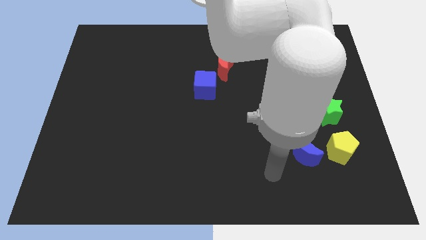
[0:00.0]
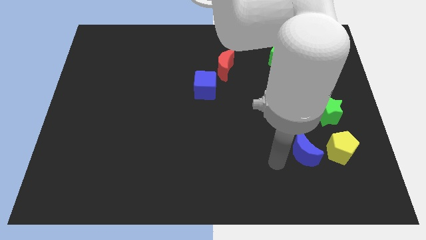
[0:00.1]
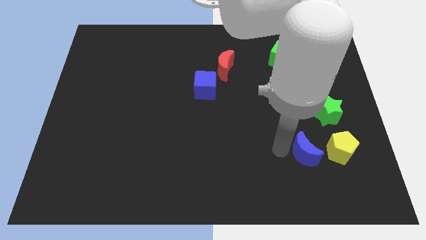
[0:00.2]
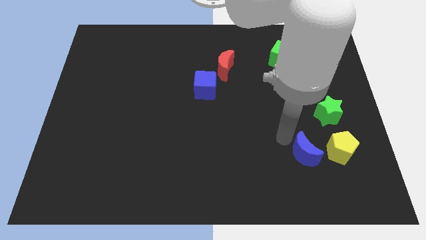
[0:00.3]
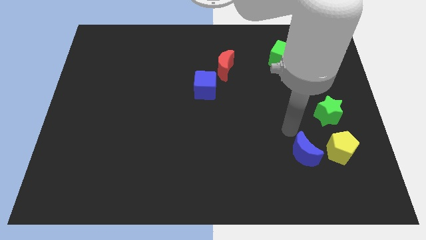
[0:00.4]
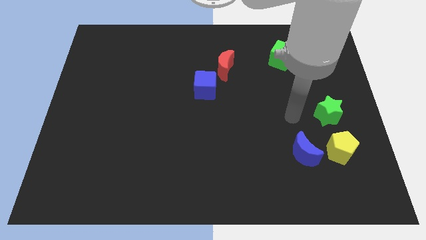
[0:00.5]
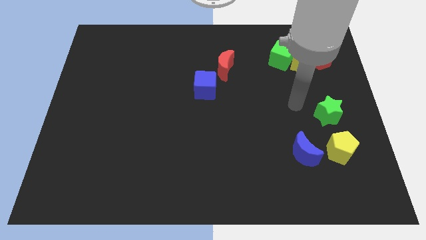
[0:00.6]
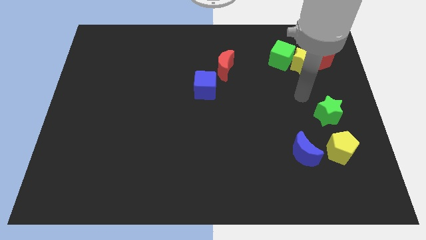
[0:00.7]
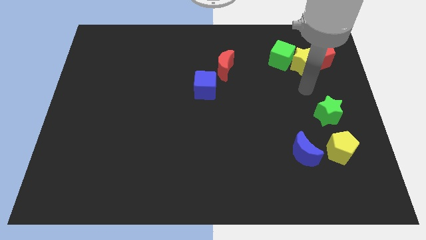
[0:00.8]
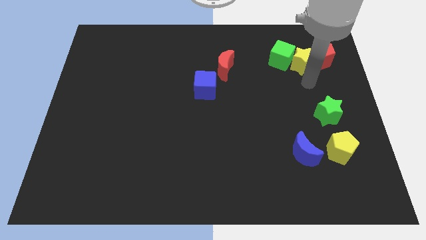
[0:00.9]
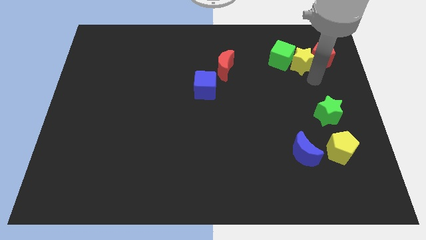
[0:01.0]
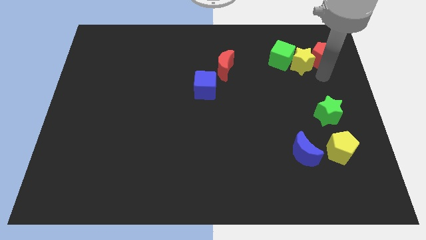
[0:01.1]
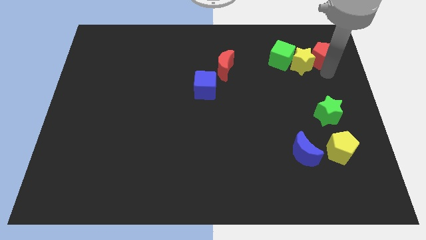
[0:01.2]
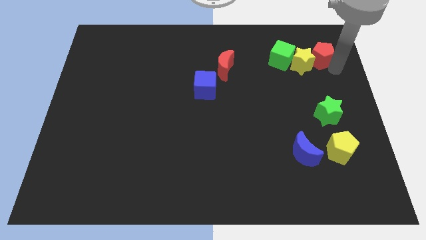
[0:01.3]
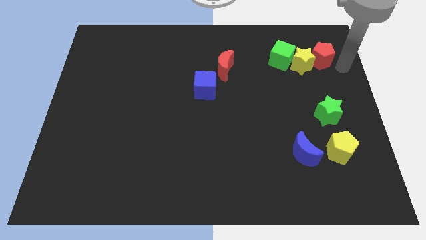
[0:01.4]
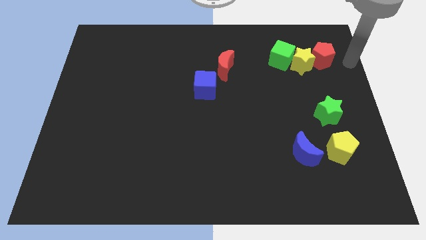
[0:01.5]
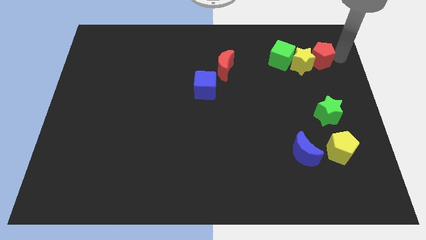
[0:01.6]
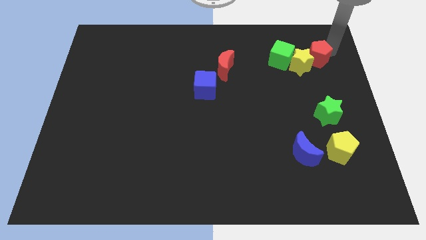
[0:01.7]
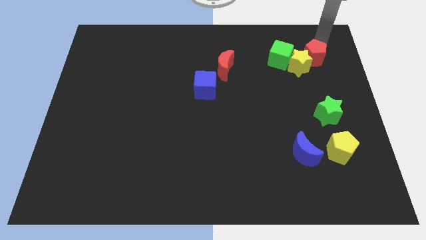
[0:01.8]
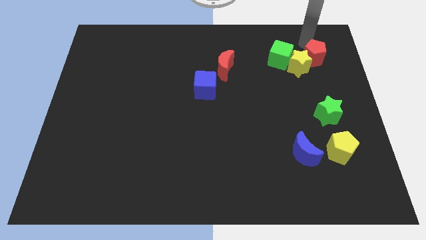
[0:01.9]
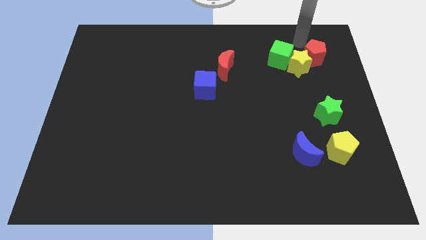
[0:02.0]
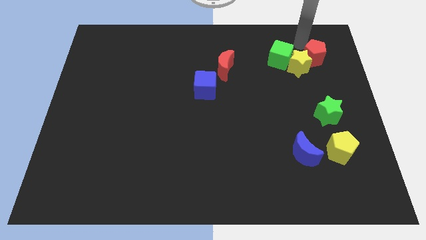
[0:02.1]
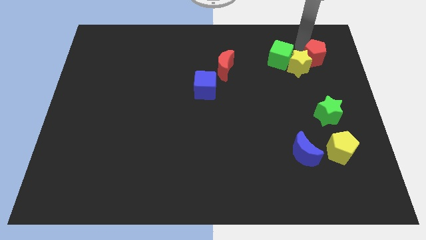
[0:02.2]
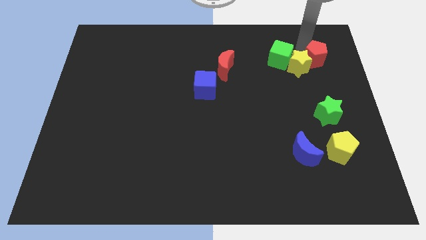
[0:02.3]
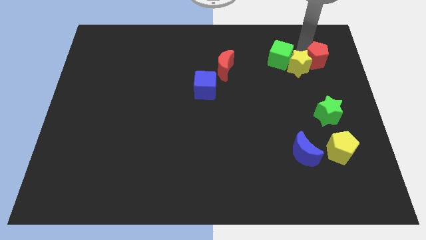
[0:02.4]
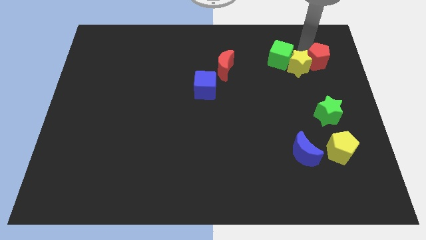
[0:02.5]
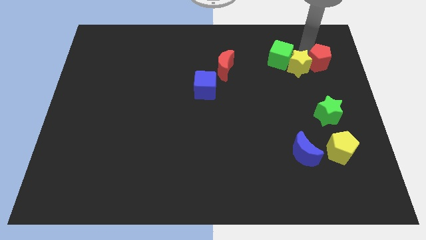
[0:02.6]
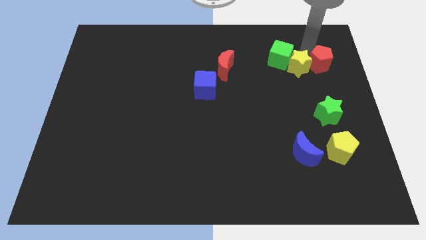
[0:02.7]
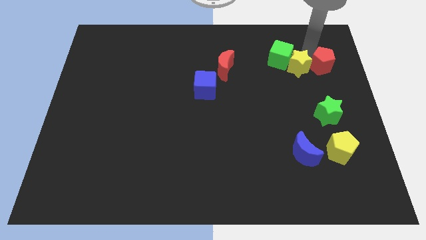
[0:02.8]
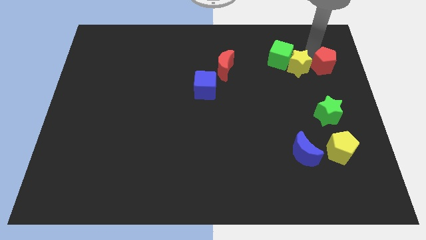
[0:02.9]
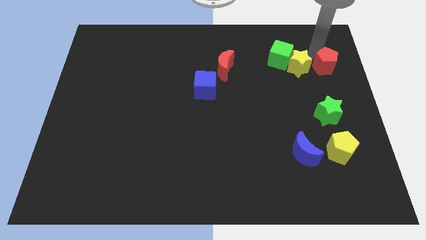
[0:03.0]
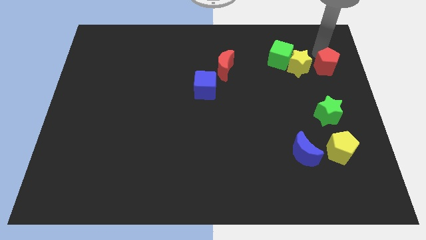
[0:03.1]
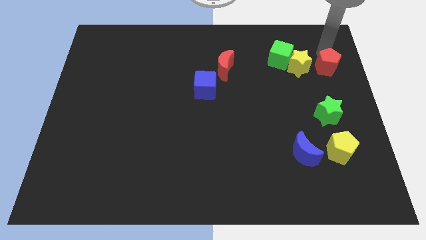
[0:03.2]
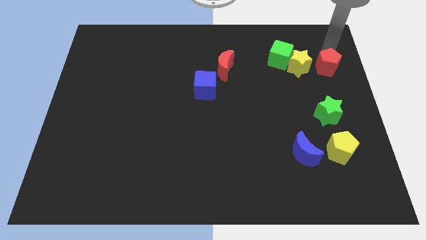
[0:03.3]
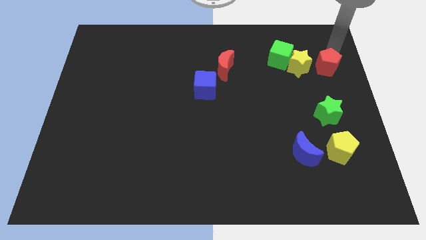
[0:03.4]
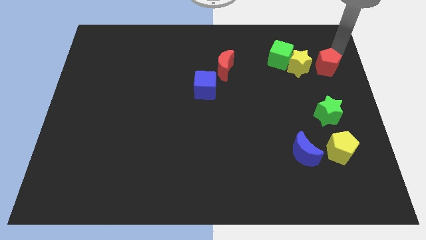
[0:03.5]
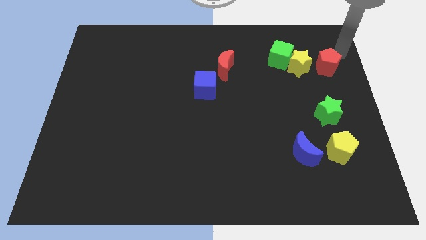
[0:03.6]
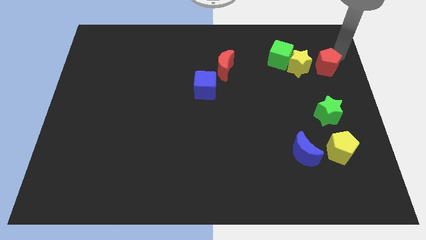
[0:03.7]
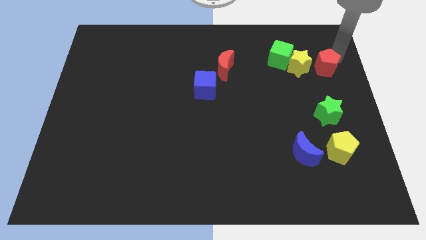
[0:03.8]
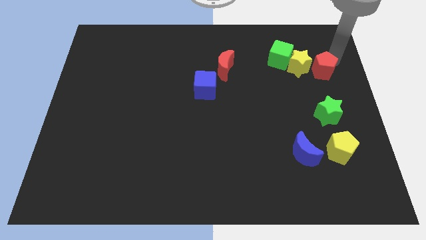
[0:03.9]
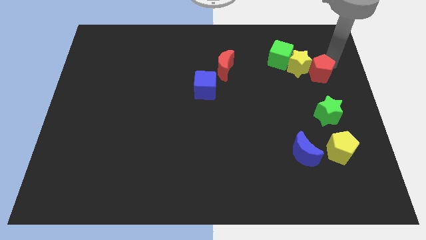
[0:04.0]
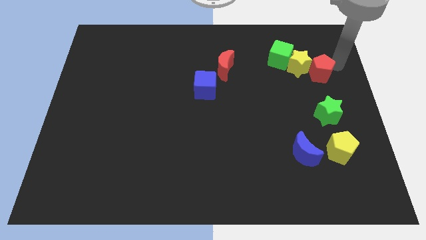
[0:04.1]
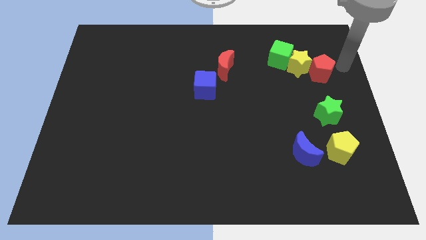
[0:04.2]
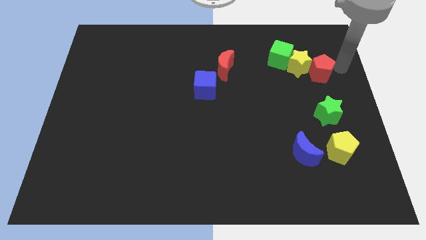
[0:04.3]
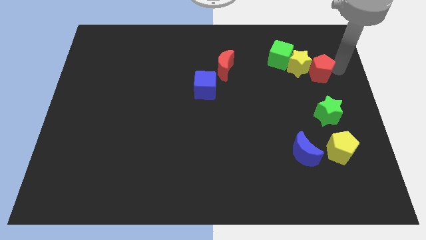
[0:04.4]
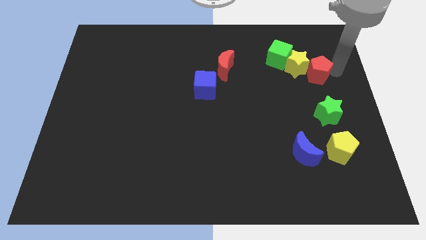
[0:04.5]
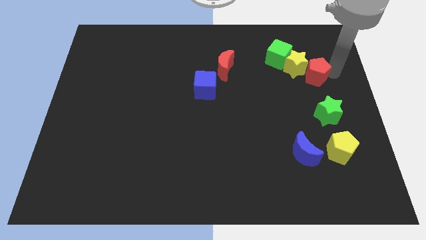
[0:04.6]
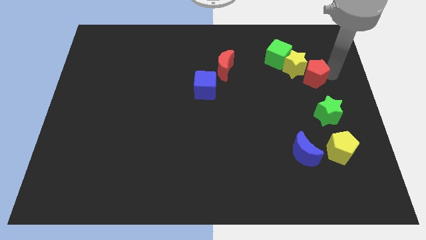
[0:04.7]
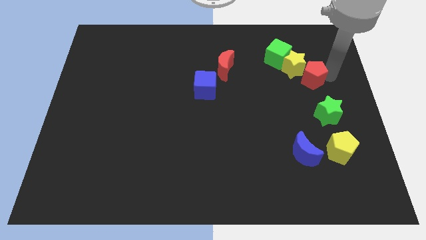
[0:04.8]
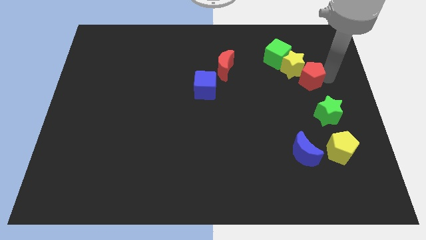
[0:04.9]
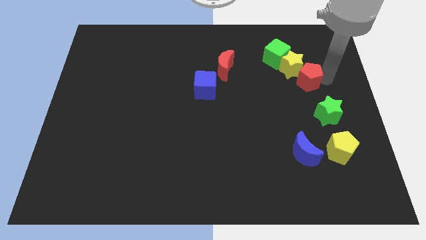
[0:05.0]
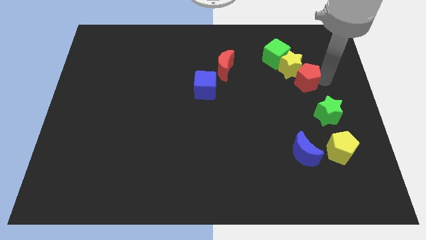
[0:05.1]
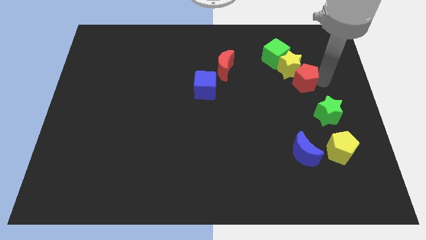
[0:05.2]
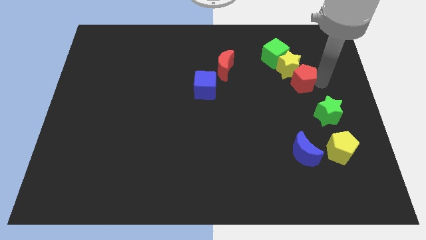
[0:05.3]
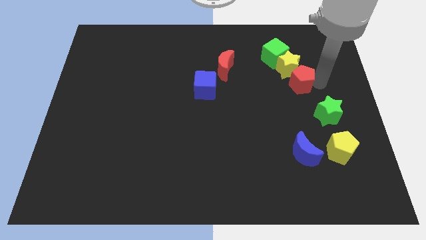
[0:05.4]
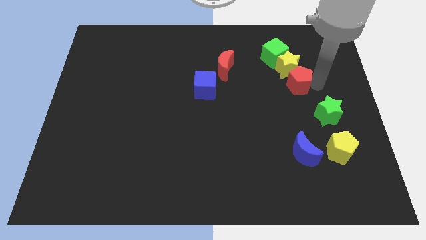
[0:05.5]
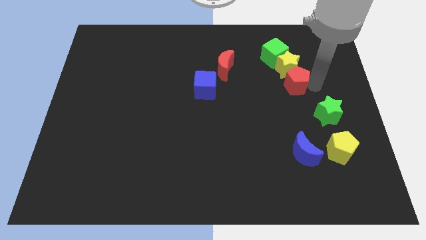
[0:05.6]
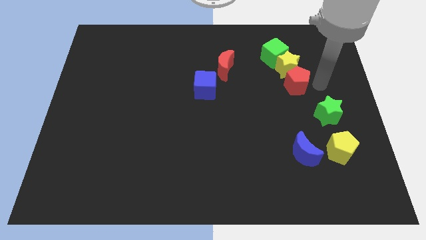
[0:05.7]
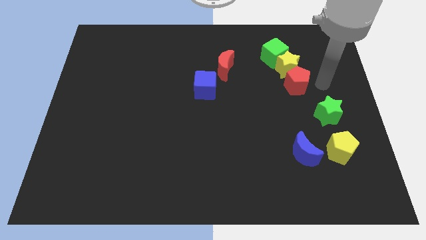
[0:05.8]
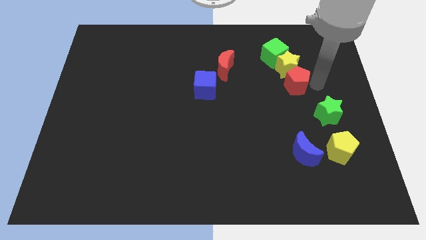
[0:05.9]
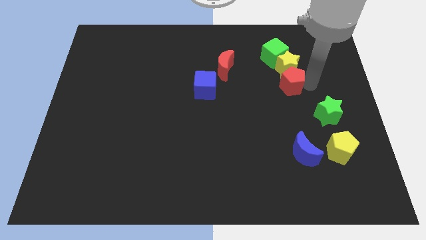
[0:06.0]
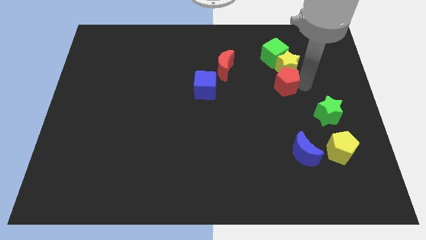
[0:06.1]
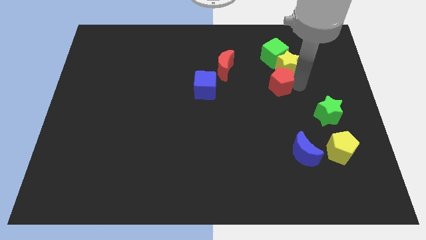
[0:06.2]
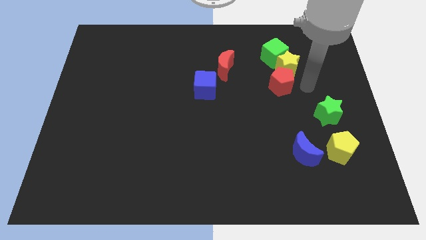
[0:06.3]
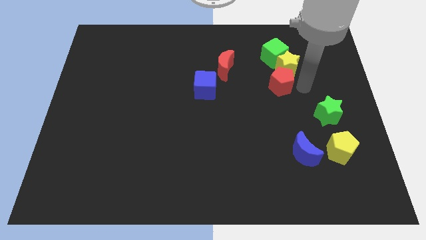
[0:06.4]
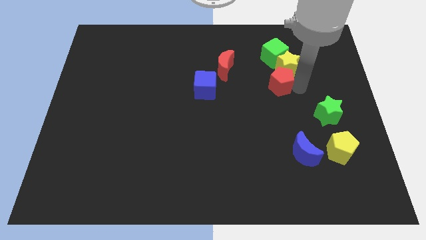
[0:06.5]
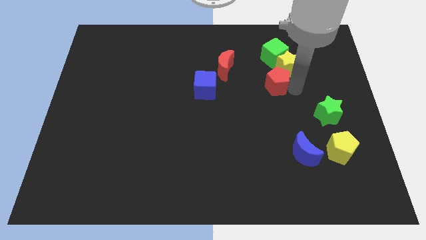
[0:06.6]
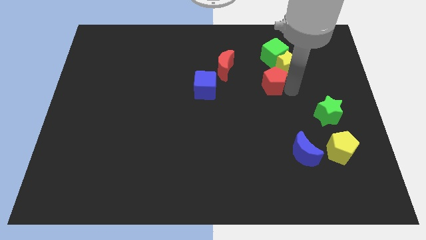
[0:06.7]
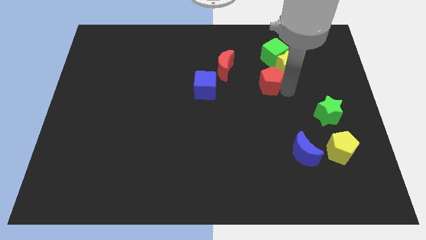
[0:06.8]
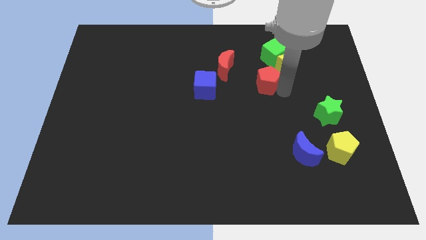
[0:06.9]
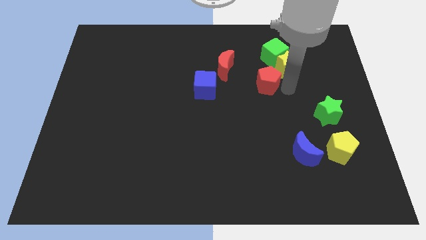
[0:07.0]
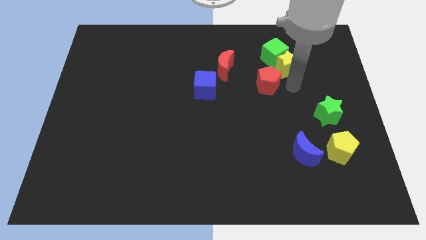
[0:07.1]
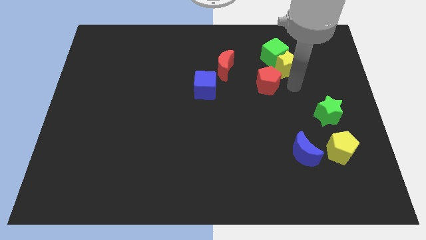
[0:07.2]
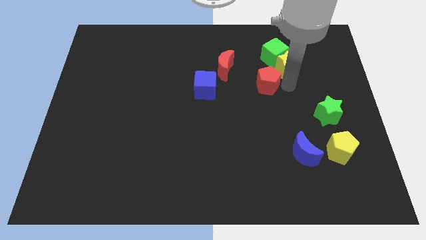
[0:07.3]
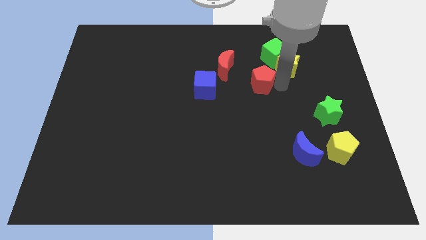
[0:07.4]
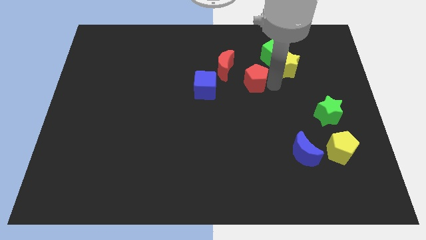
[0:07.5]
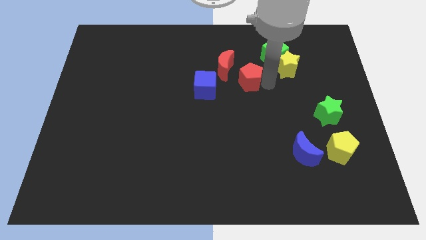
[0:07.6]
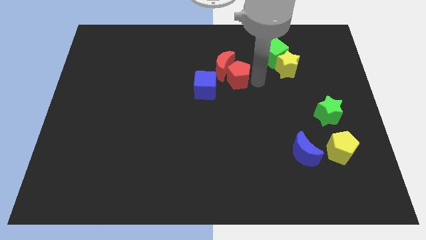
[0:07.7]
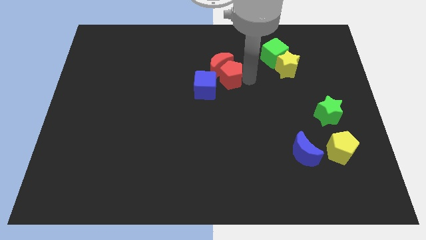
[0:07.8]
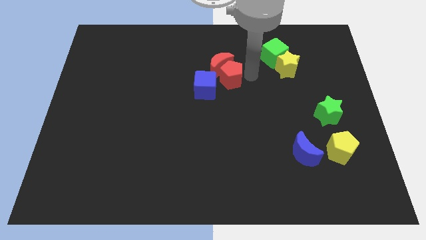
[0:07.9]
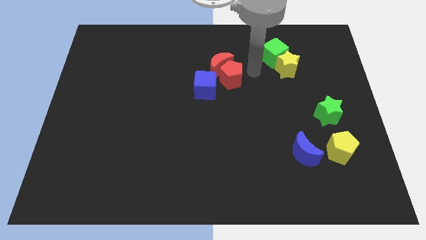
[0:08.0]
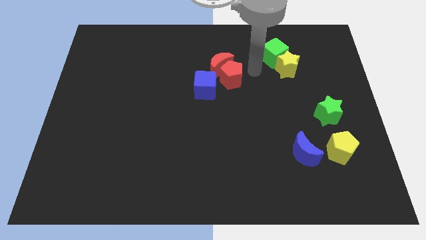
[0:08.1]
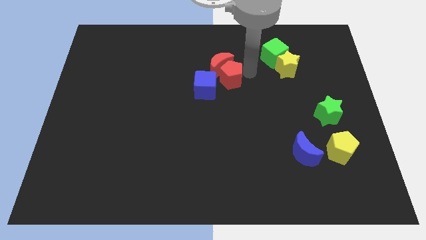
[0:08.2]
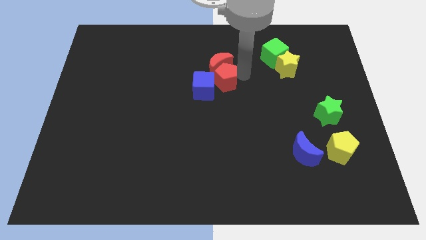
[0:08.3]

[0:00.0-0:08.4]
slide the red pentagon next to the blue cube
